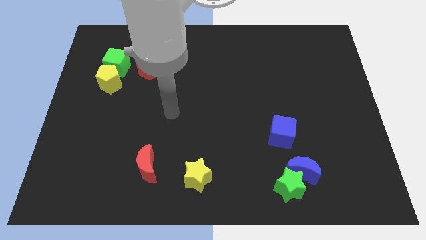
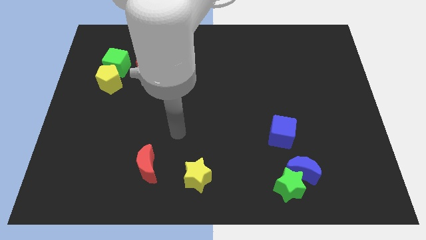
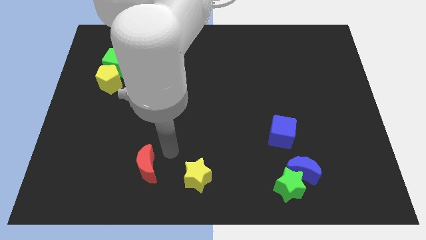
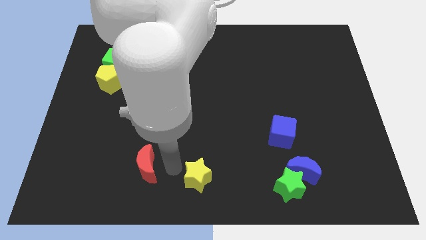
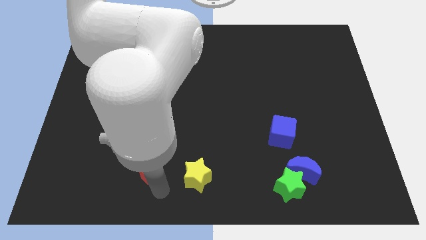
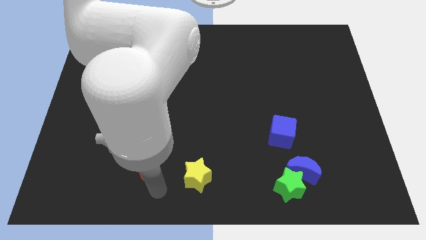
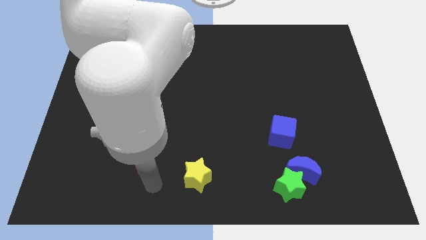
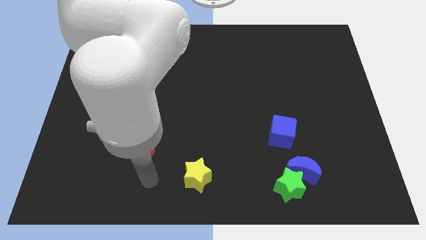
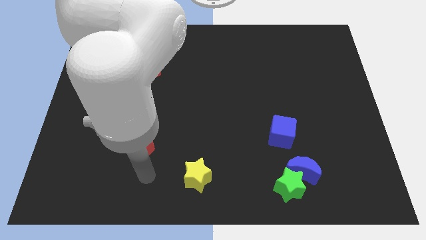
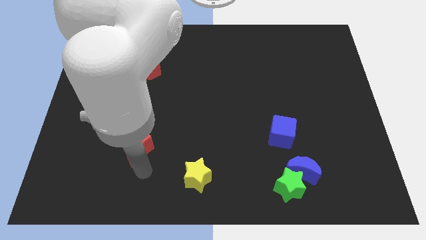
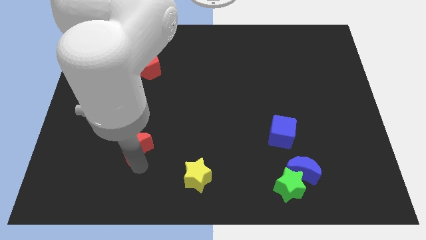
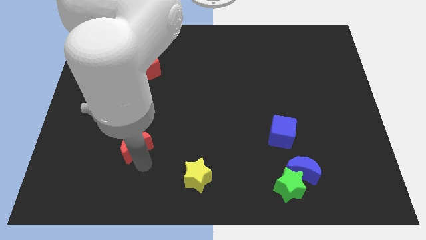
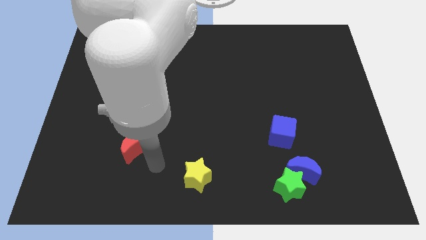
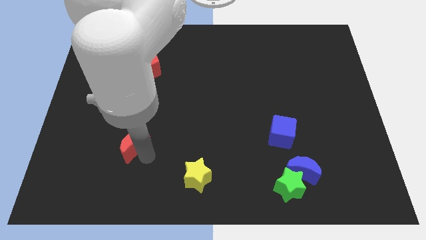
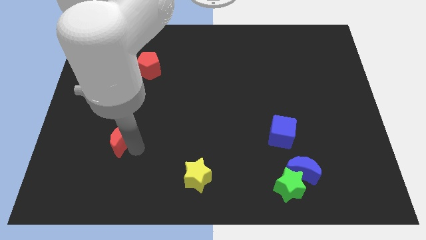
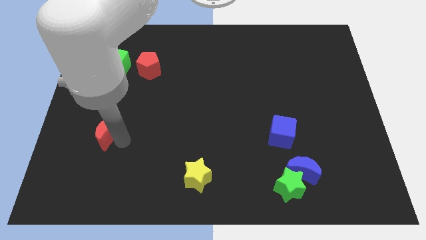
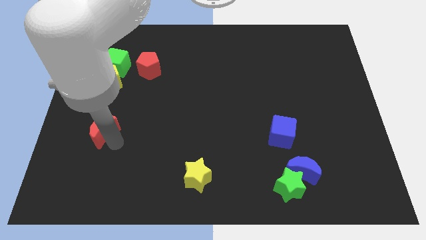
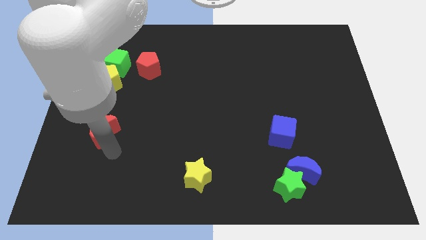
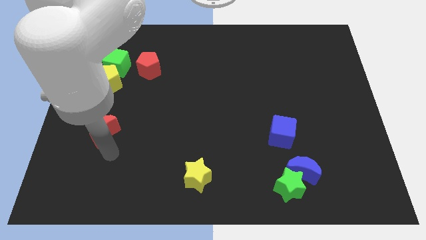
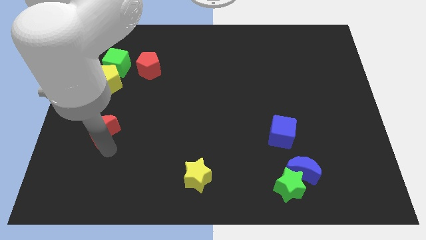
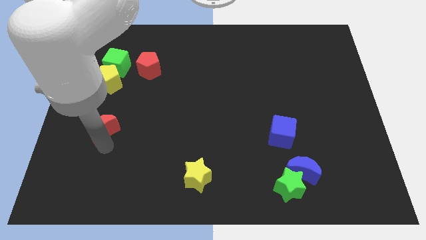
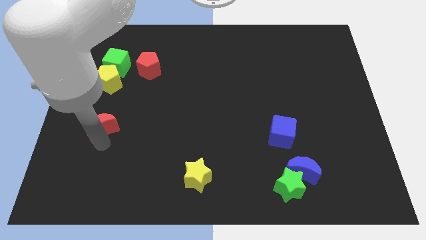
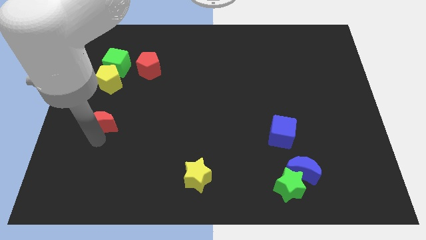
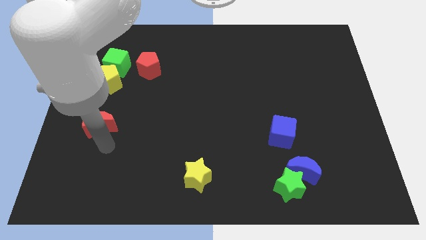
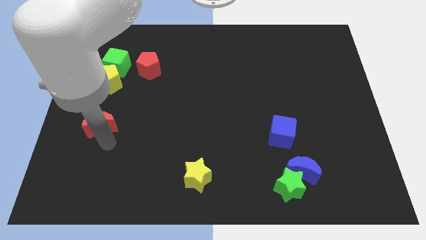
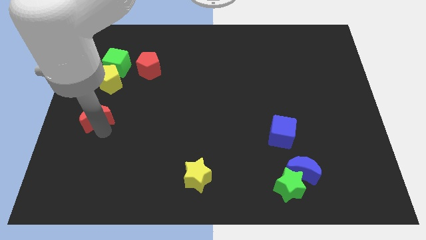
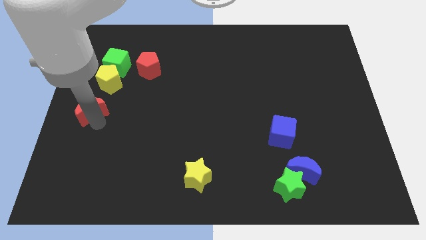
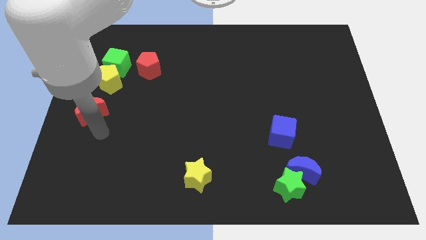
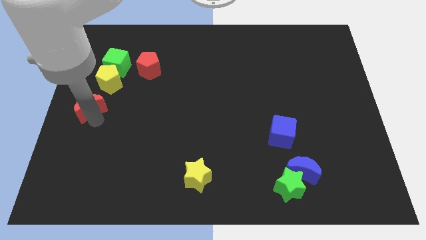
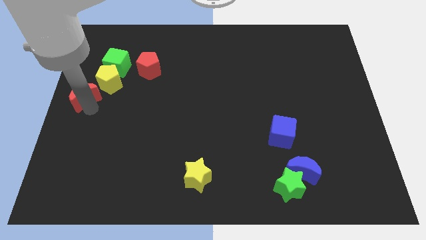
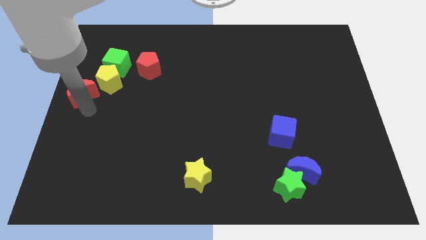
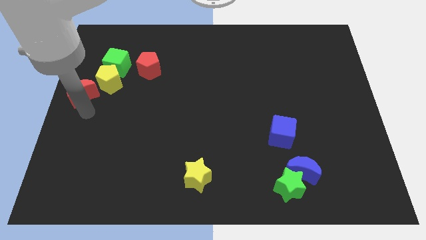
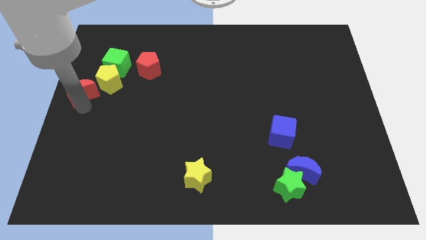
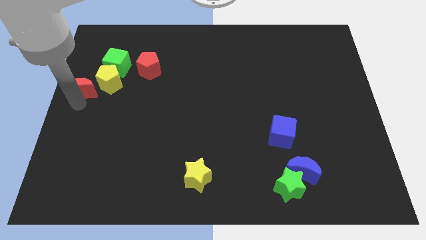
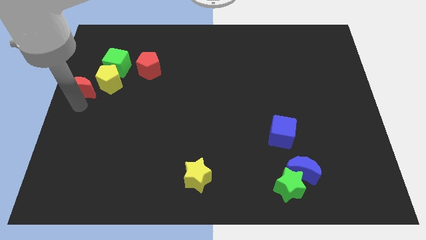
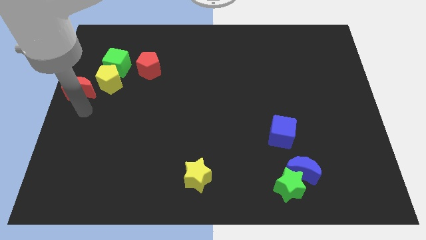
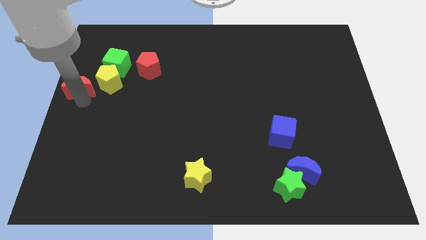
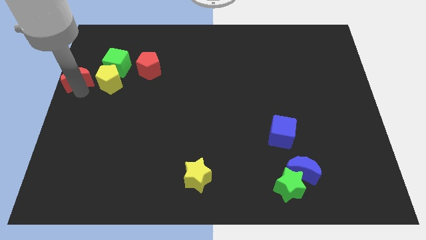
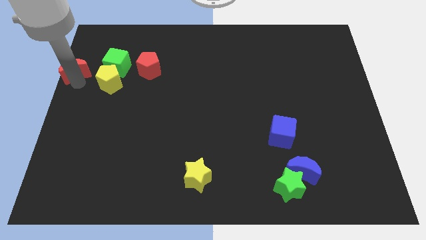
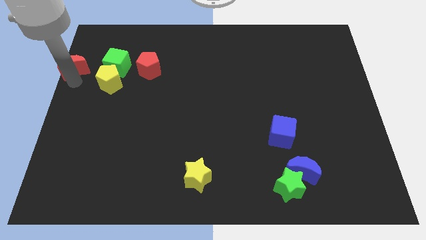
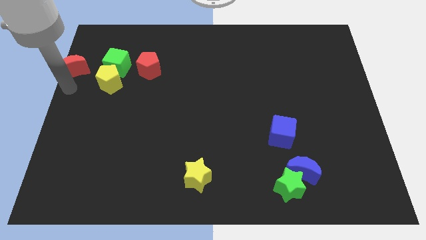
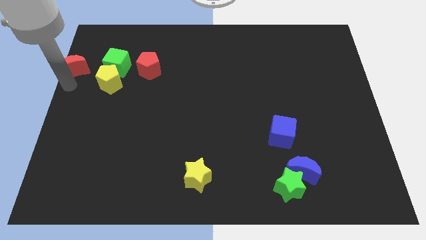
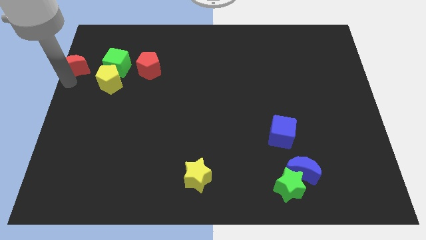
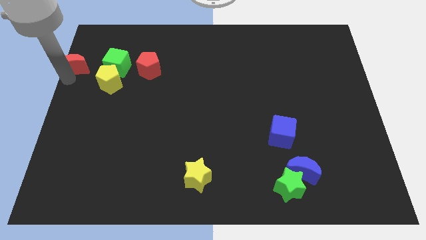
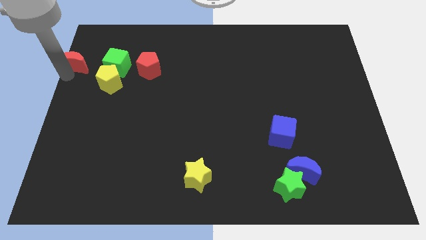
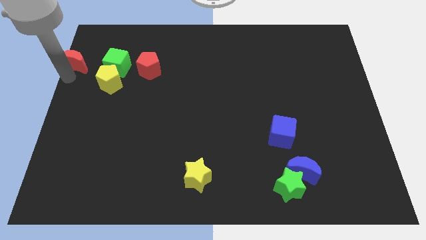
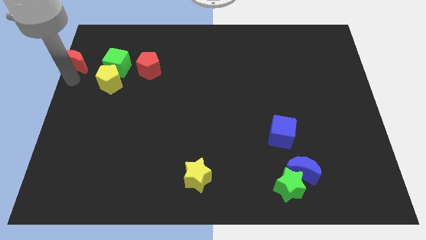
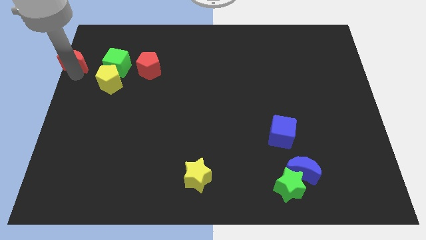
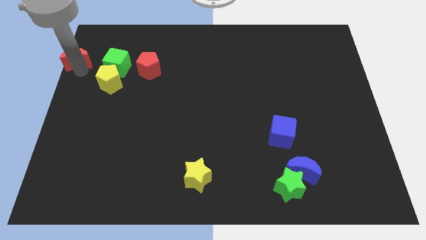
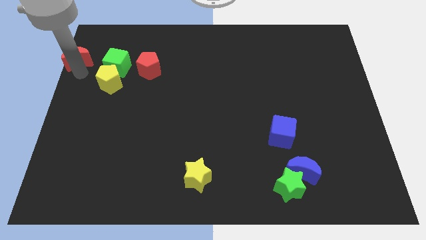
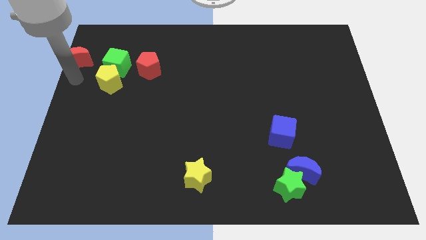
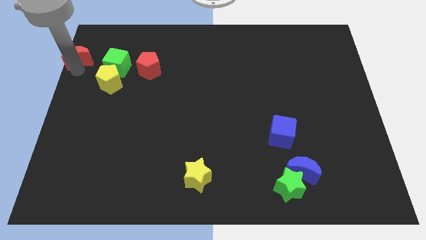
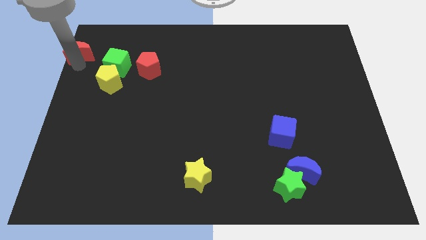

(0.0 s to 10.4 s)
put the red moon to the top left corner

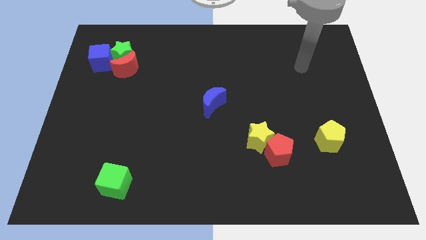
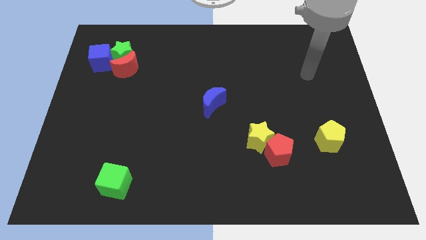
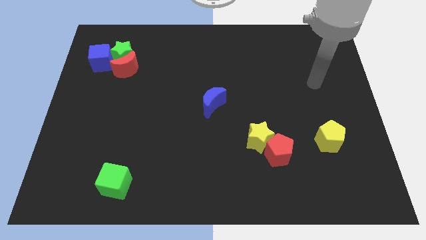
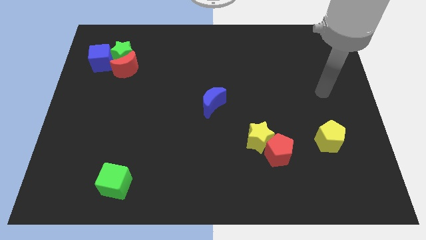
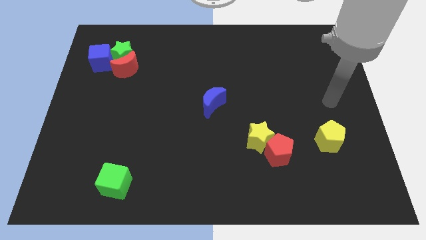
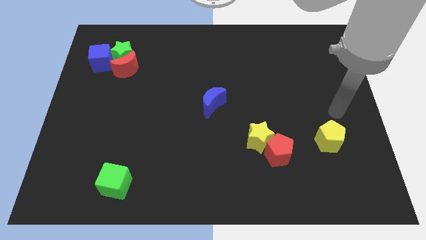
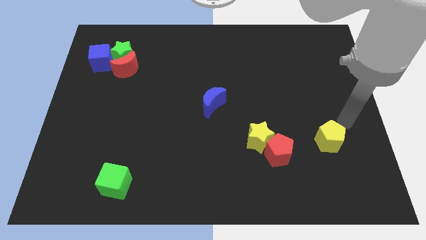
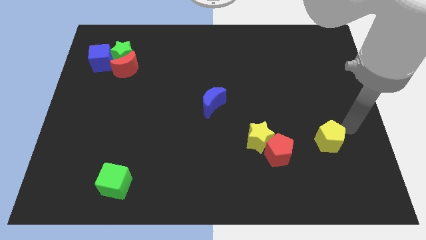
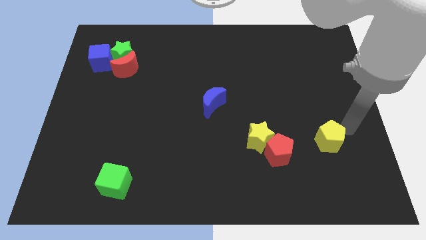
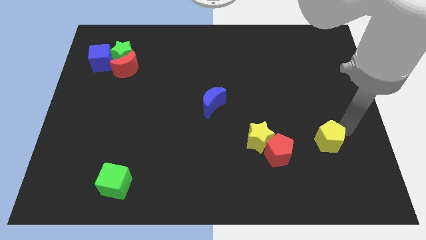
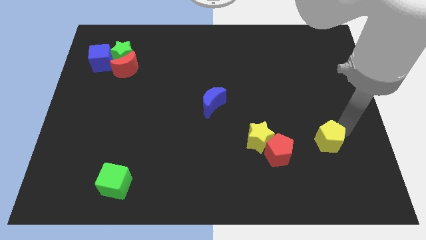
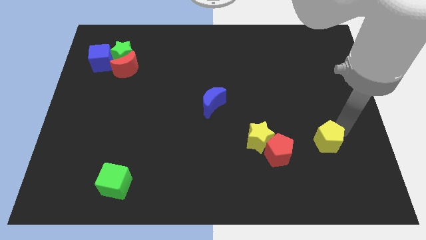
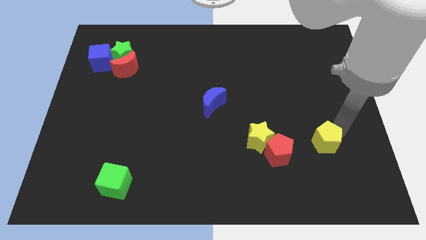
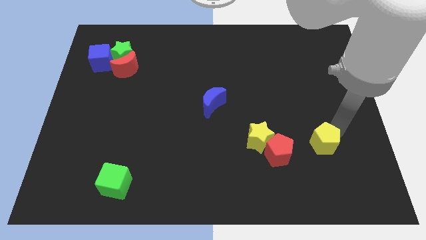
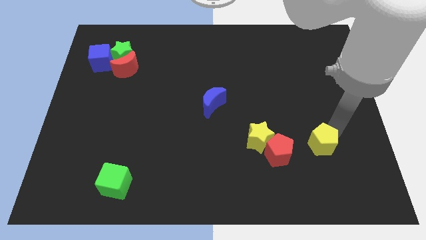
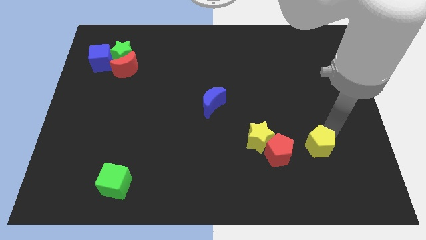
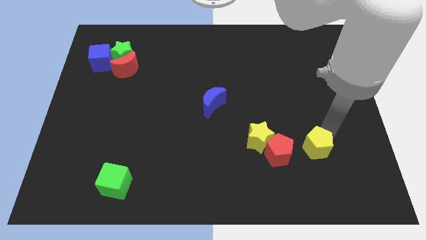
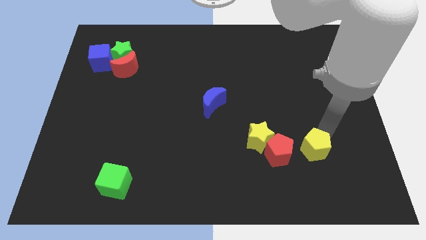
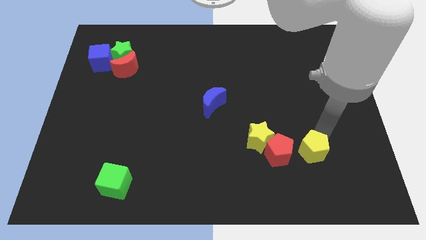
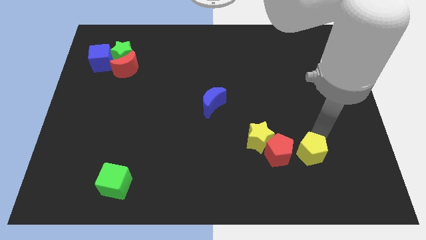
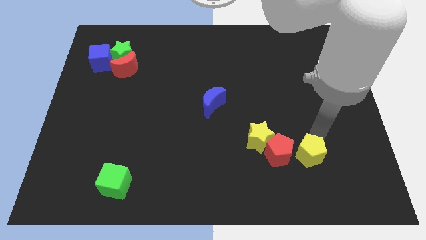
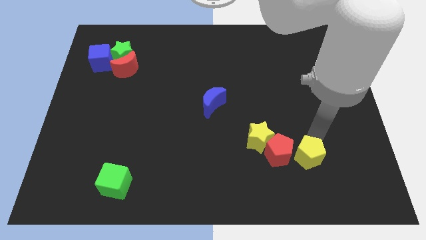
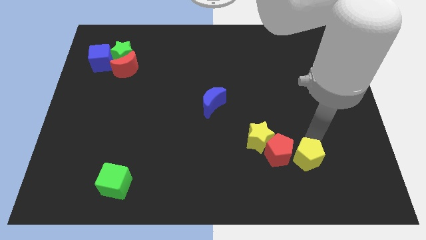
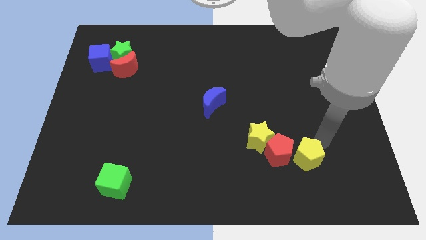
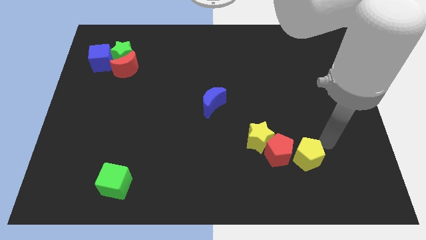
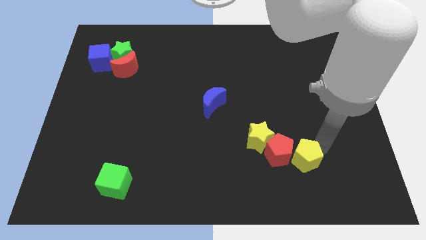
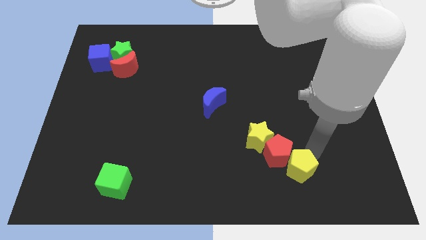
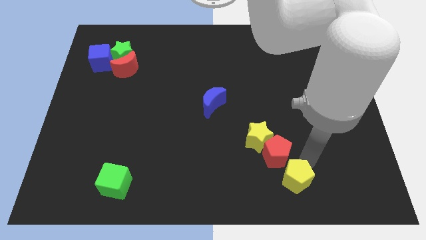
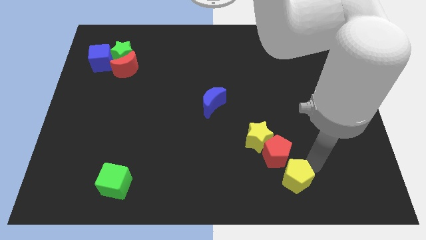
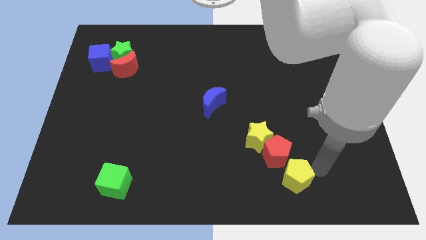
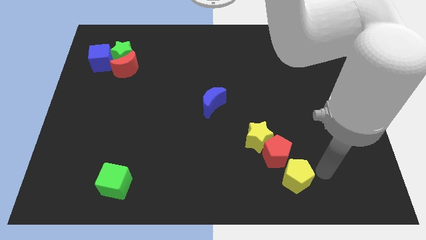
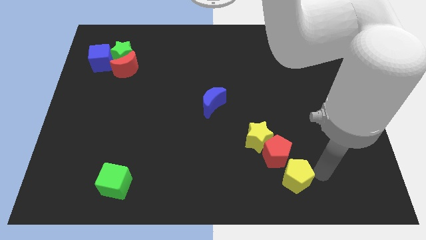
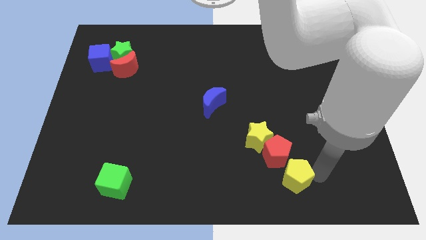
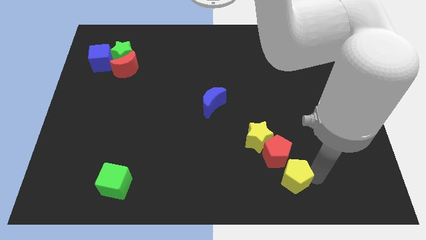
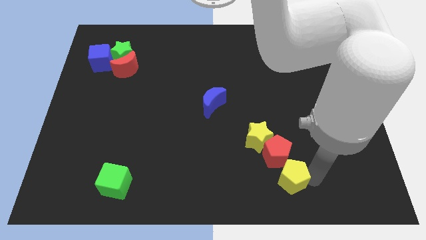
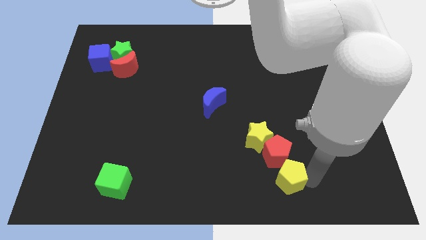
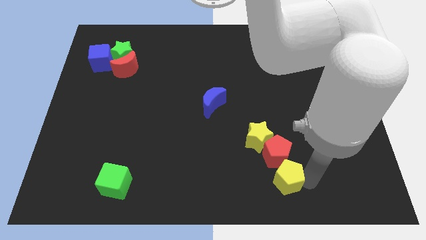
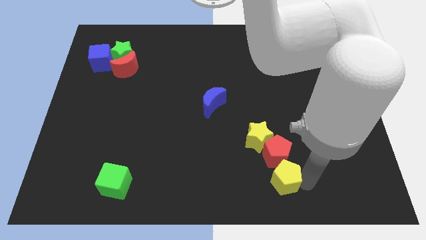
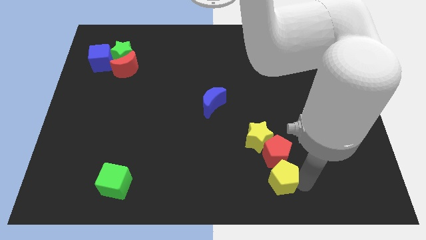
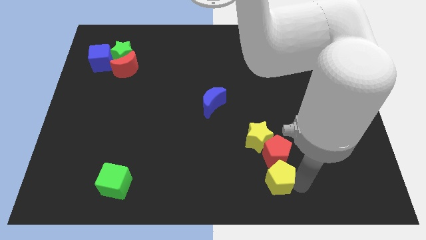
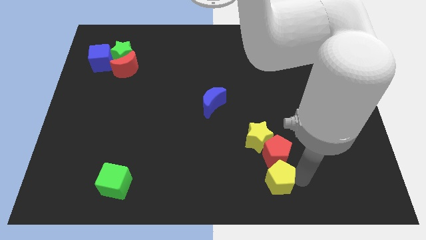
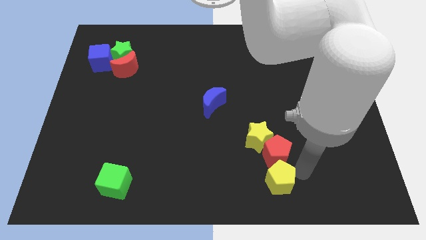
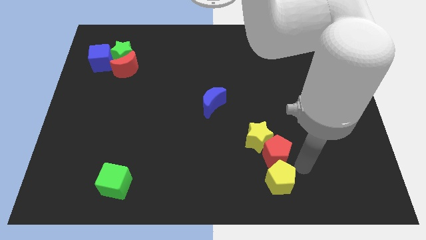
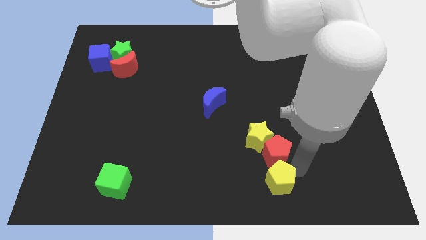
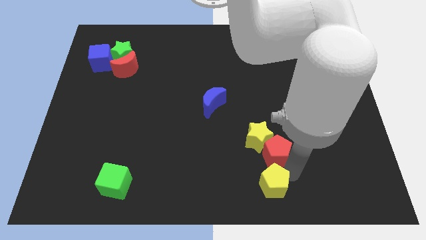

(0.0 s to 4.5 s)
slide the yellow pentagon to the bottom side
